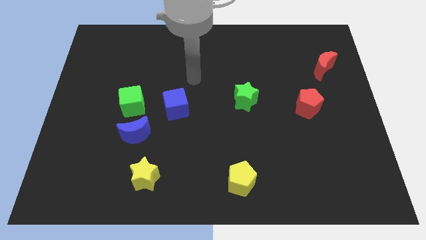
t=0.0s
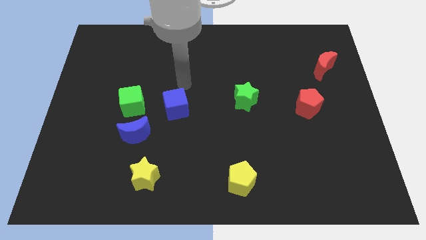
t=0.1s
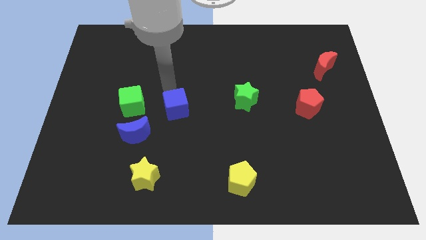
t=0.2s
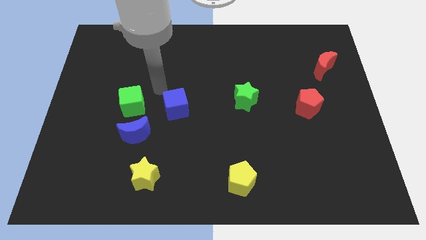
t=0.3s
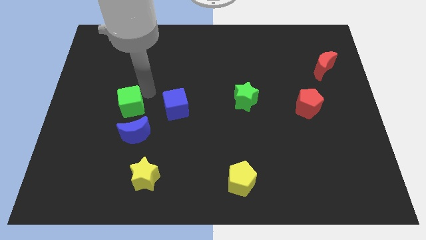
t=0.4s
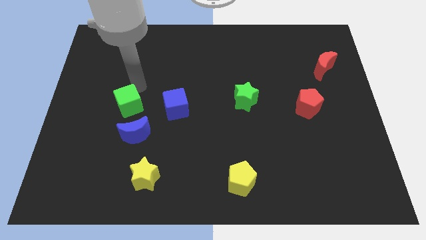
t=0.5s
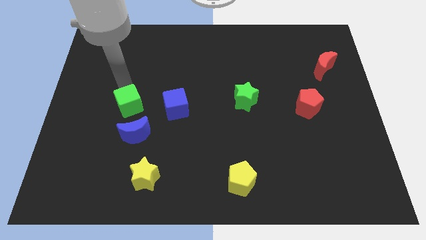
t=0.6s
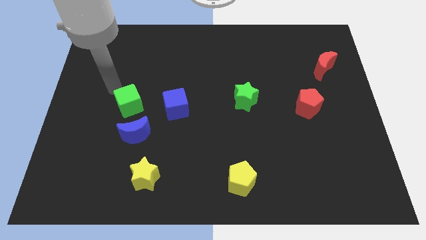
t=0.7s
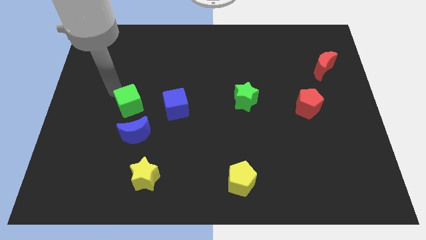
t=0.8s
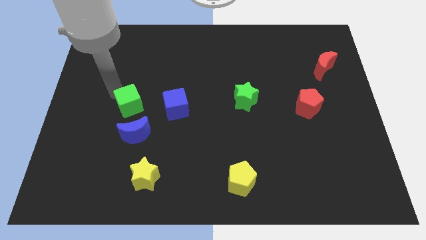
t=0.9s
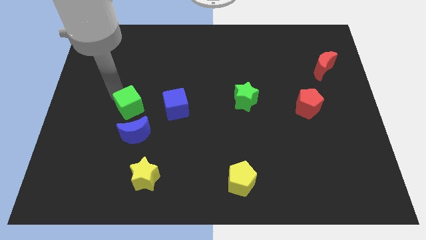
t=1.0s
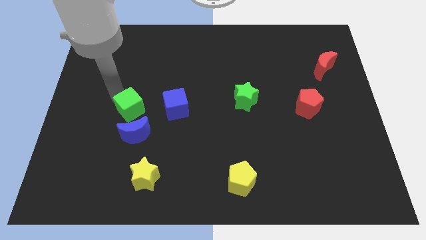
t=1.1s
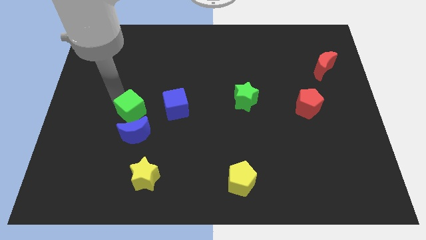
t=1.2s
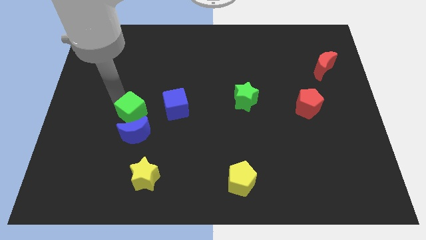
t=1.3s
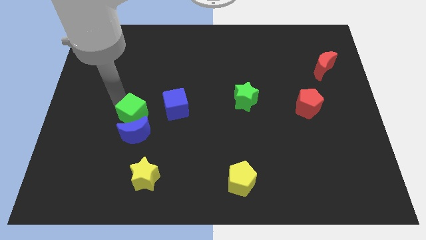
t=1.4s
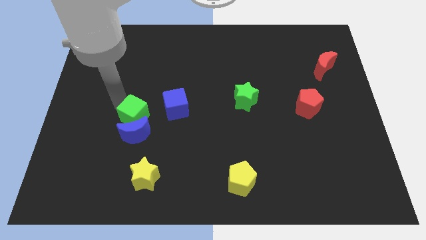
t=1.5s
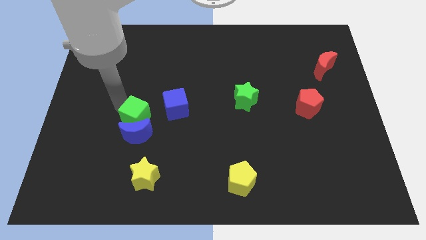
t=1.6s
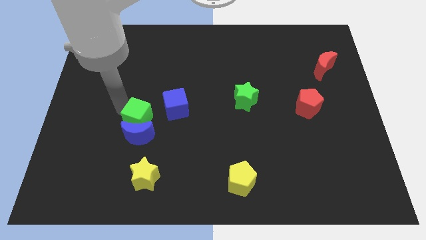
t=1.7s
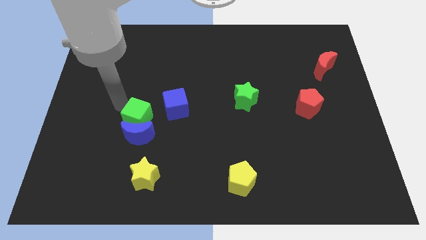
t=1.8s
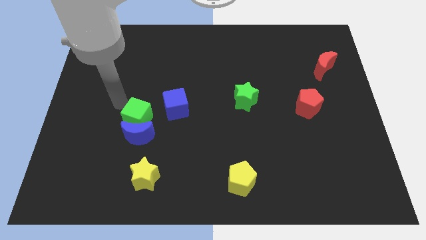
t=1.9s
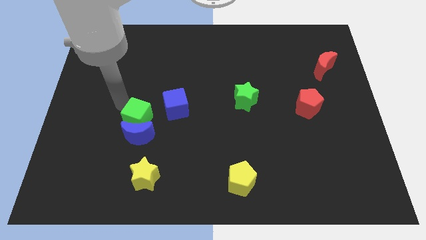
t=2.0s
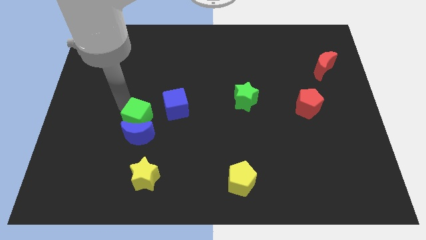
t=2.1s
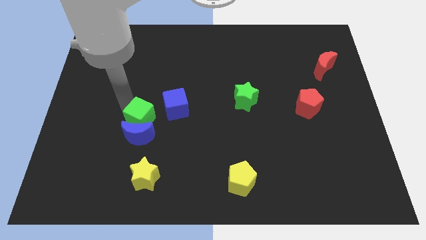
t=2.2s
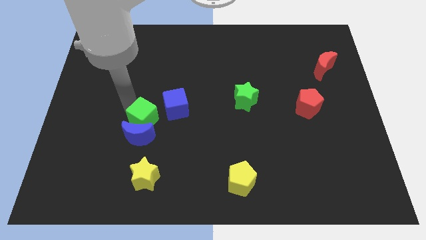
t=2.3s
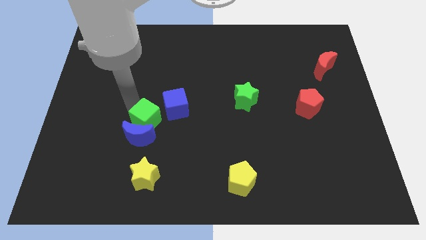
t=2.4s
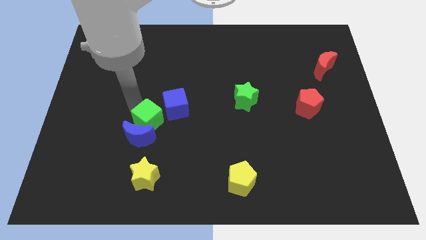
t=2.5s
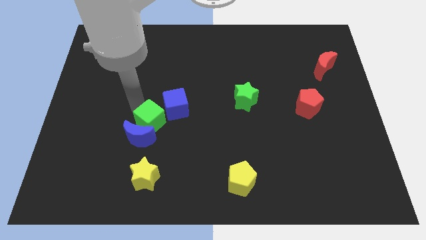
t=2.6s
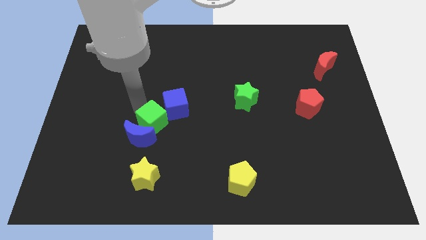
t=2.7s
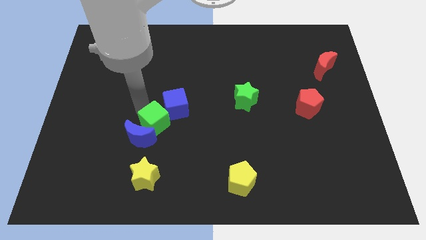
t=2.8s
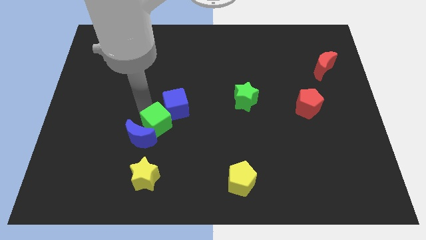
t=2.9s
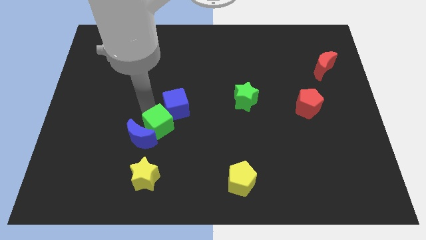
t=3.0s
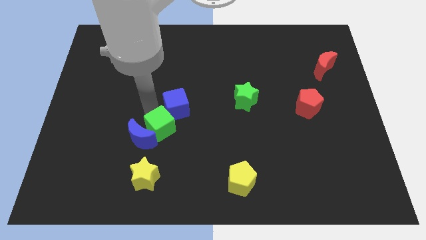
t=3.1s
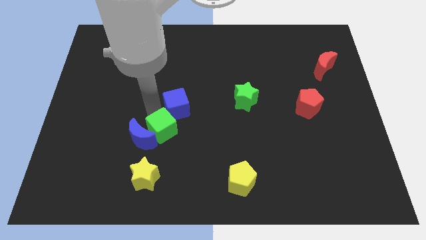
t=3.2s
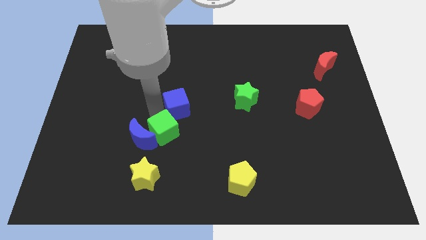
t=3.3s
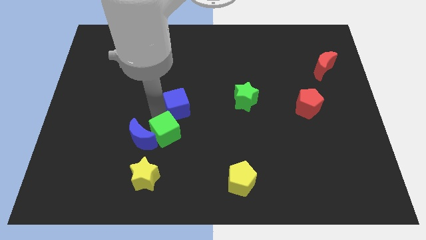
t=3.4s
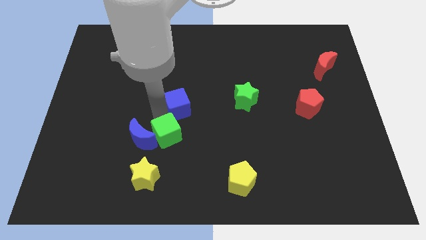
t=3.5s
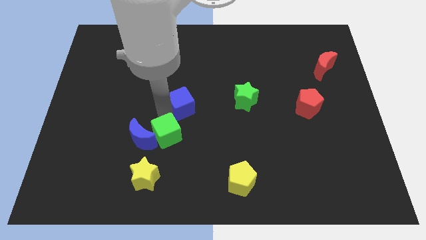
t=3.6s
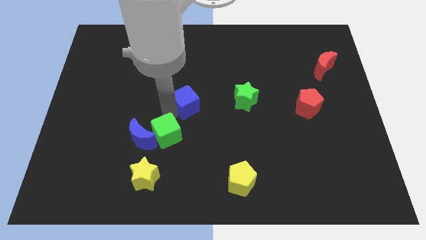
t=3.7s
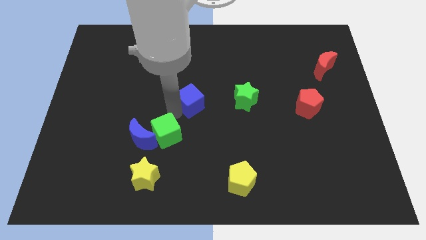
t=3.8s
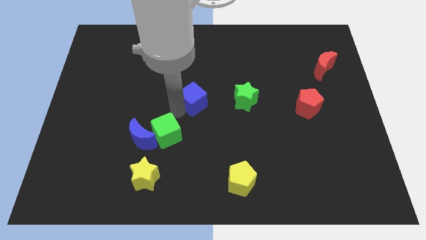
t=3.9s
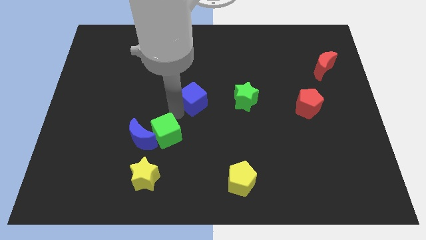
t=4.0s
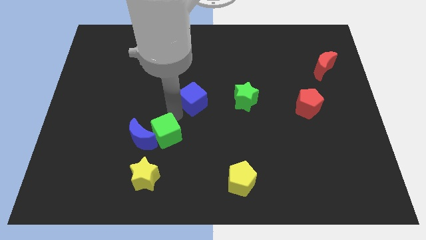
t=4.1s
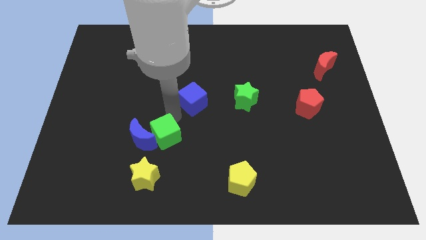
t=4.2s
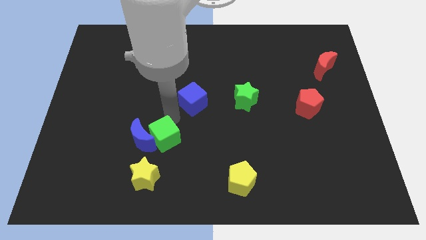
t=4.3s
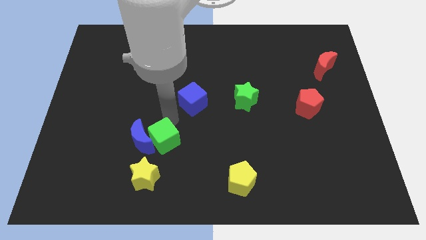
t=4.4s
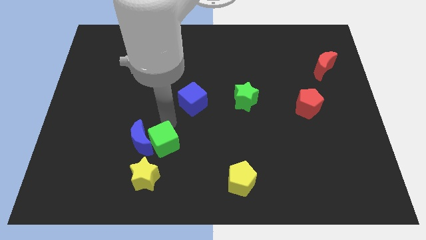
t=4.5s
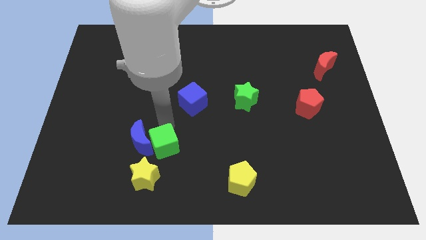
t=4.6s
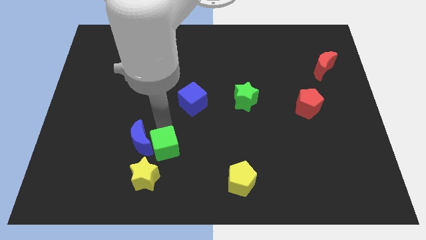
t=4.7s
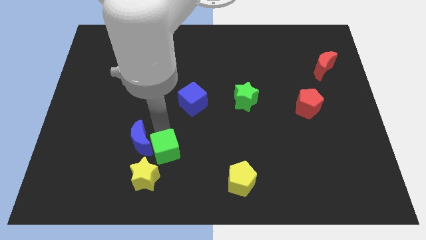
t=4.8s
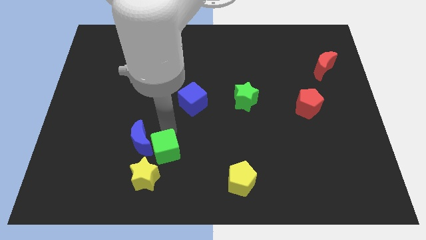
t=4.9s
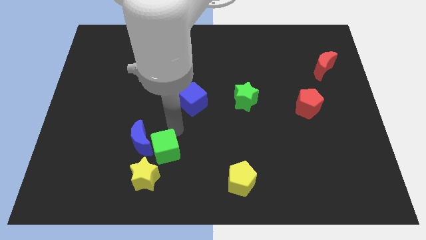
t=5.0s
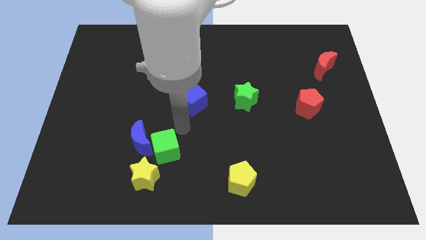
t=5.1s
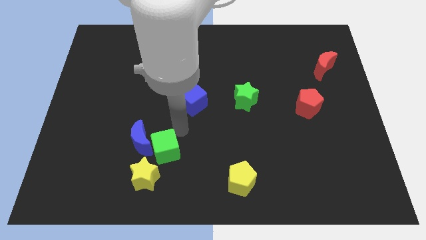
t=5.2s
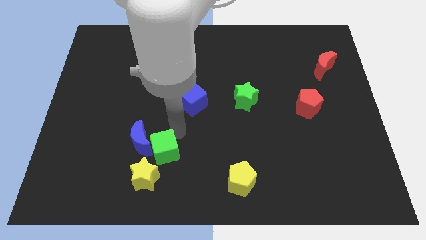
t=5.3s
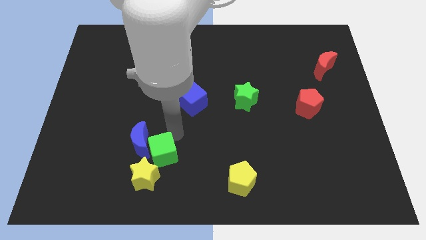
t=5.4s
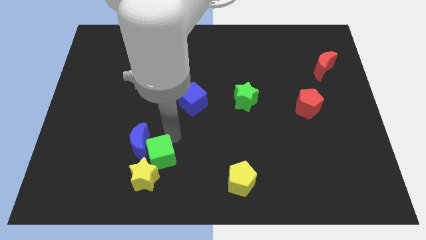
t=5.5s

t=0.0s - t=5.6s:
move the green cube next to the yellow star

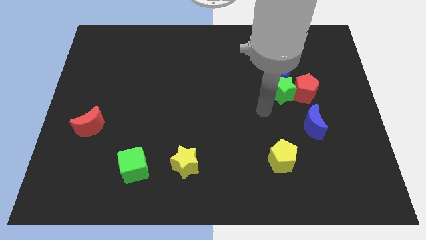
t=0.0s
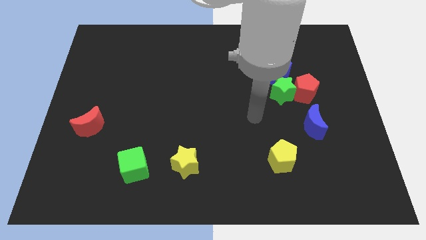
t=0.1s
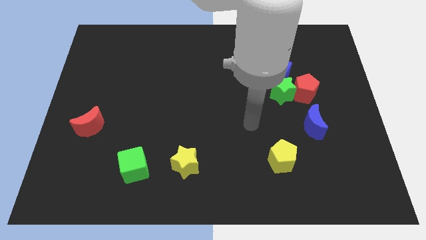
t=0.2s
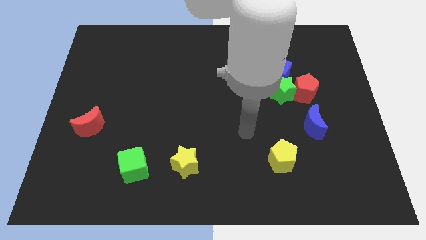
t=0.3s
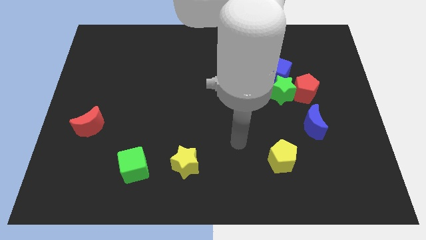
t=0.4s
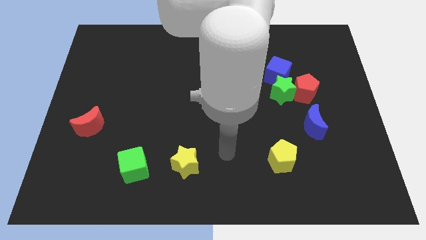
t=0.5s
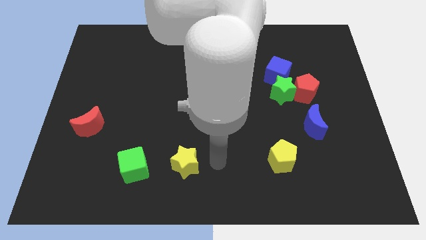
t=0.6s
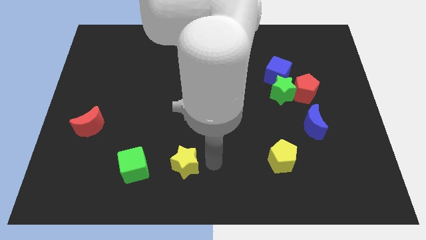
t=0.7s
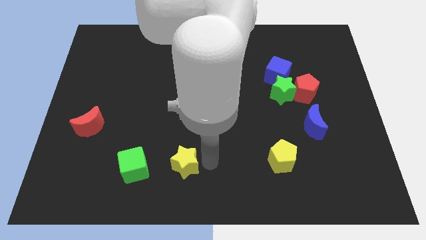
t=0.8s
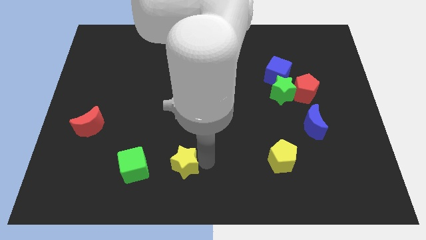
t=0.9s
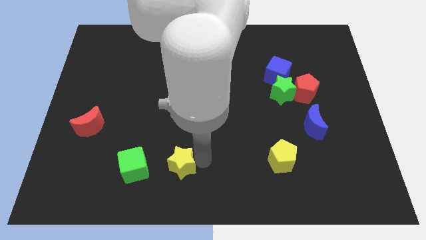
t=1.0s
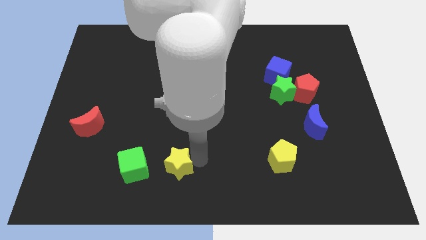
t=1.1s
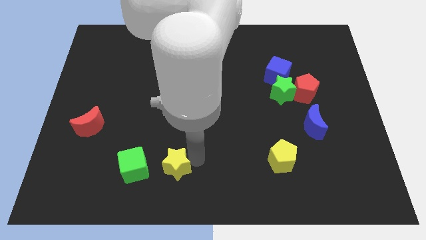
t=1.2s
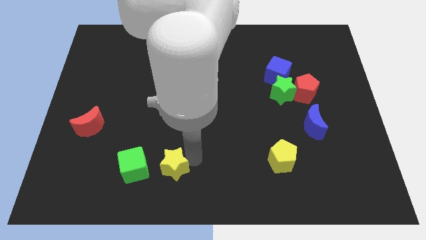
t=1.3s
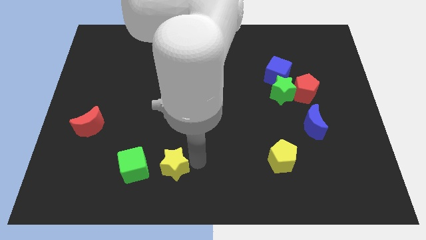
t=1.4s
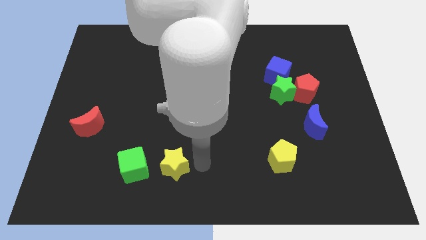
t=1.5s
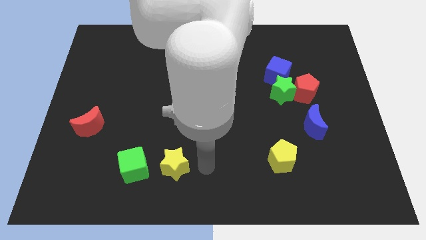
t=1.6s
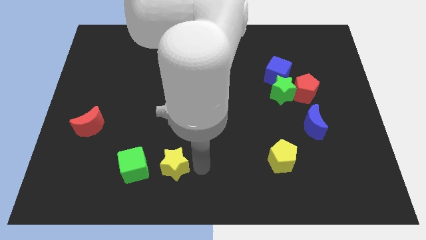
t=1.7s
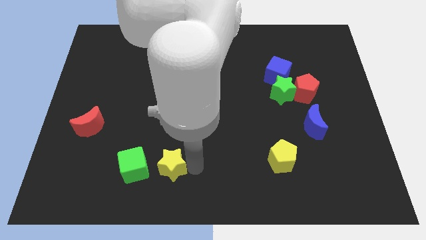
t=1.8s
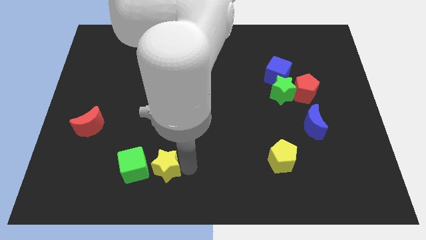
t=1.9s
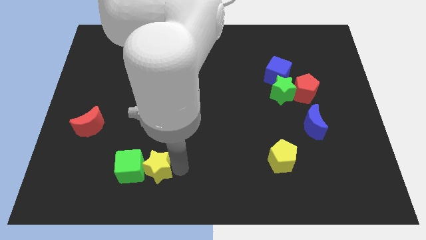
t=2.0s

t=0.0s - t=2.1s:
slide the yellow star towards the green cube
